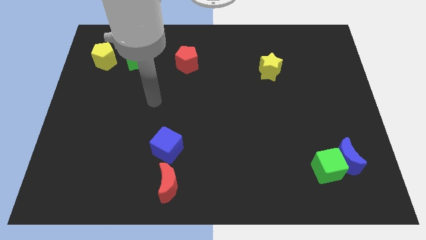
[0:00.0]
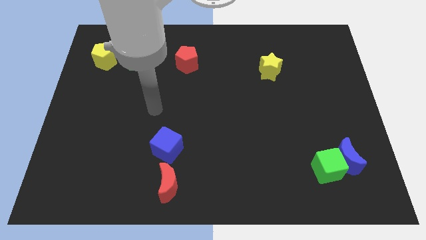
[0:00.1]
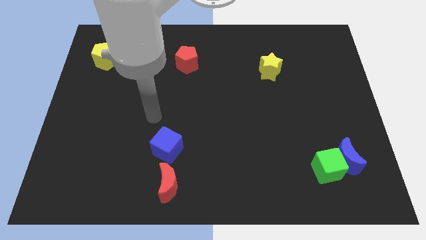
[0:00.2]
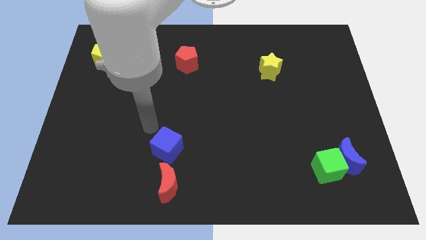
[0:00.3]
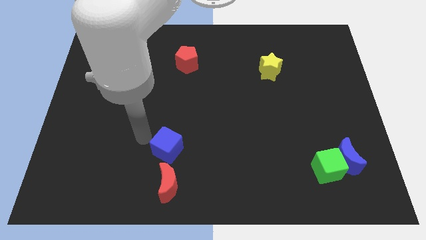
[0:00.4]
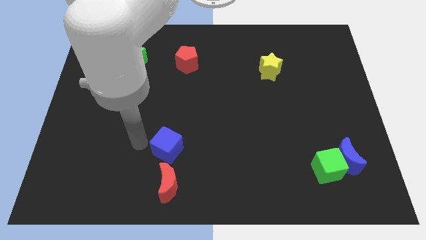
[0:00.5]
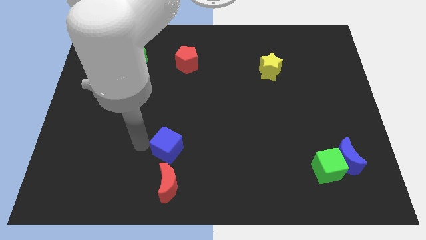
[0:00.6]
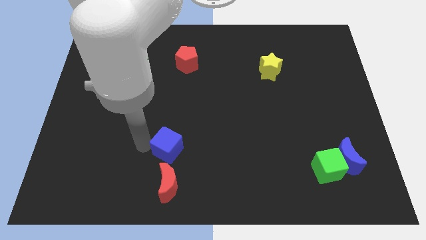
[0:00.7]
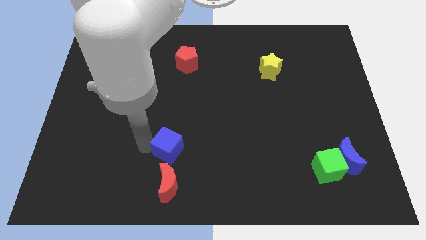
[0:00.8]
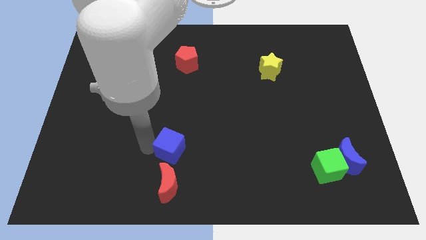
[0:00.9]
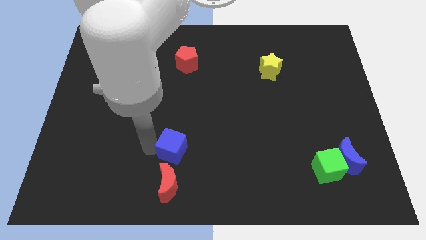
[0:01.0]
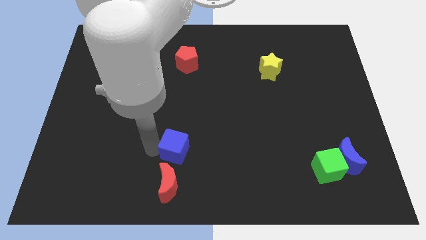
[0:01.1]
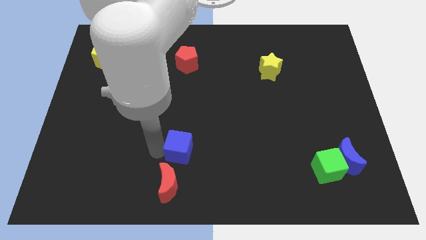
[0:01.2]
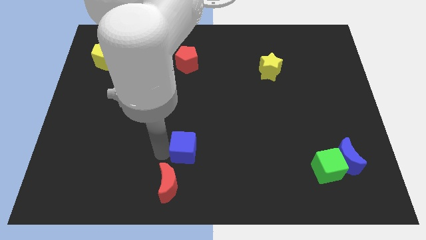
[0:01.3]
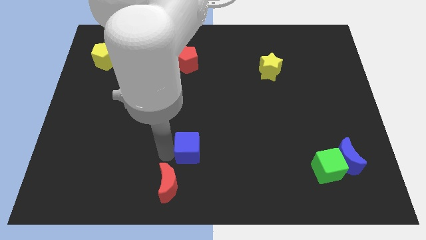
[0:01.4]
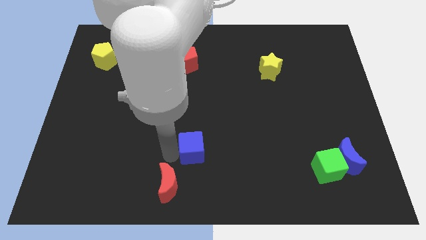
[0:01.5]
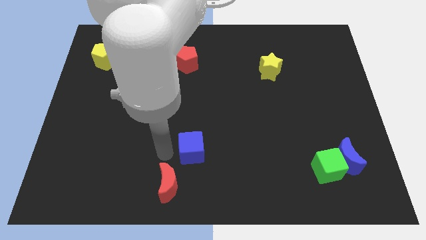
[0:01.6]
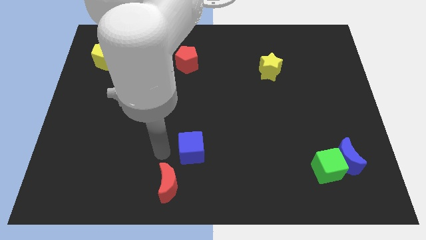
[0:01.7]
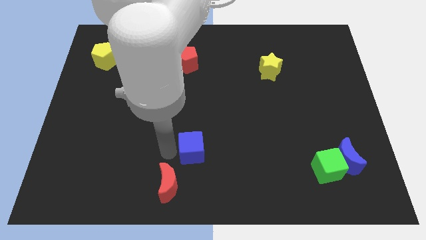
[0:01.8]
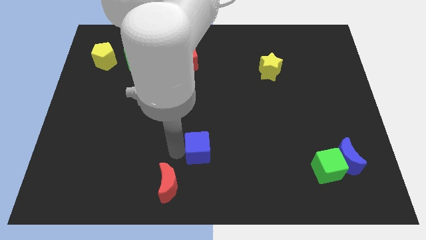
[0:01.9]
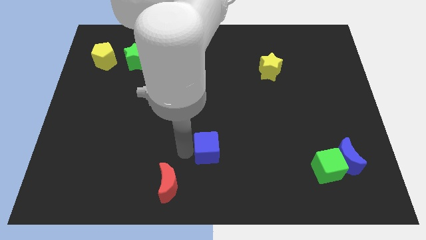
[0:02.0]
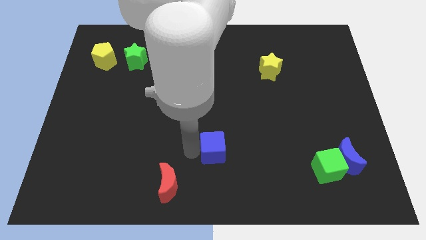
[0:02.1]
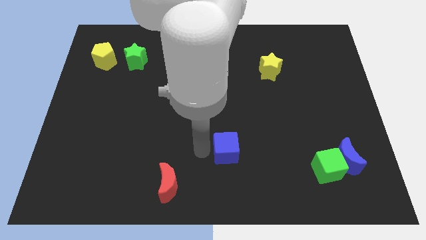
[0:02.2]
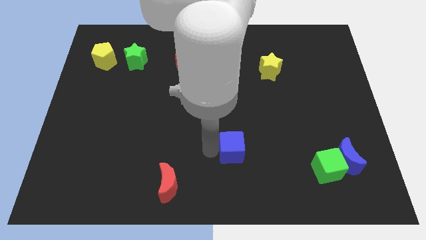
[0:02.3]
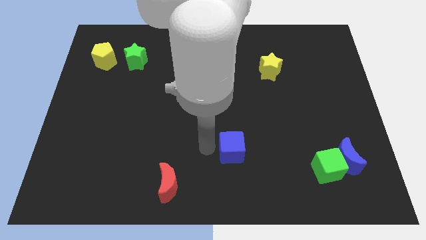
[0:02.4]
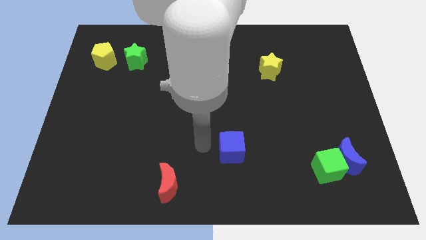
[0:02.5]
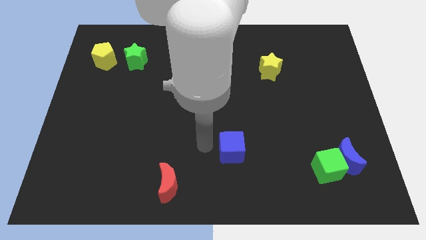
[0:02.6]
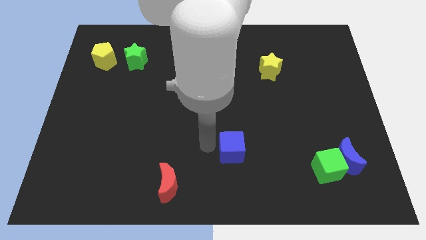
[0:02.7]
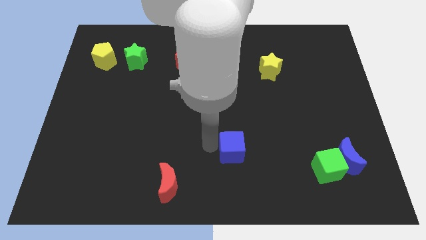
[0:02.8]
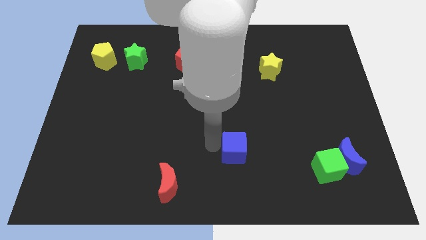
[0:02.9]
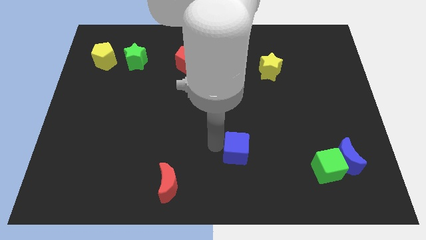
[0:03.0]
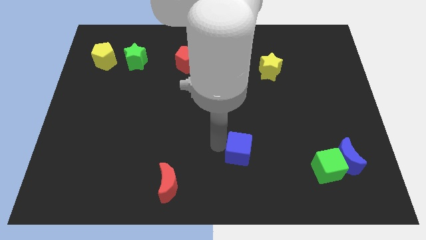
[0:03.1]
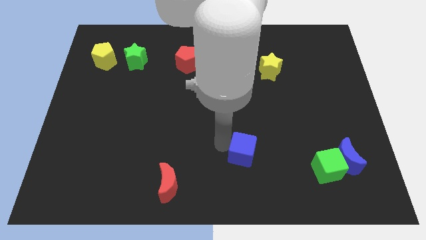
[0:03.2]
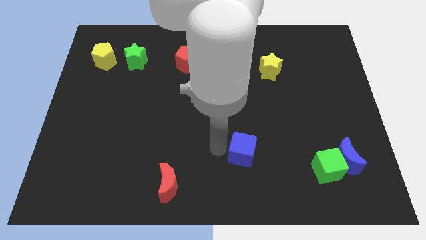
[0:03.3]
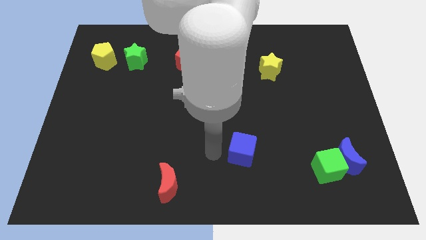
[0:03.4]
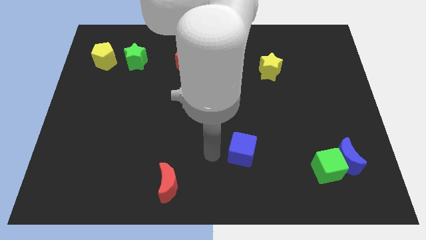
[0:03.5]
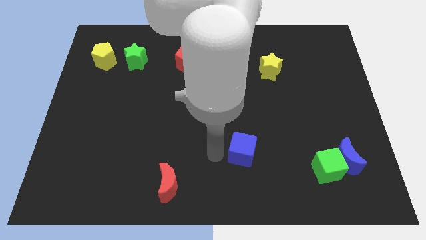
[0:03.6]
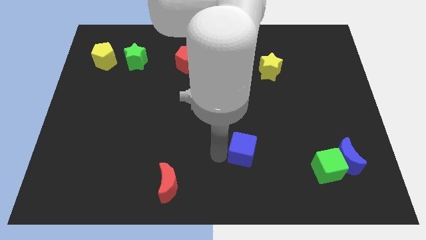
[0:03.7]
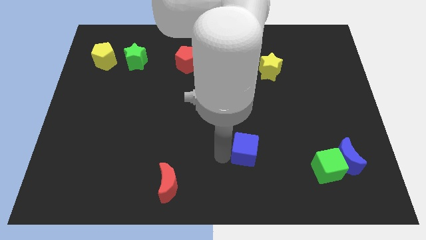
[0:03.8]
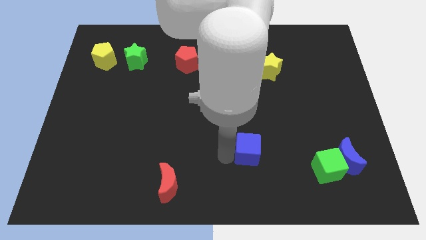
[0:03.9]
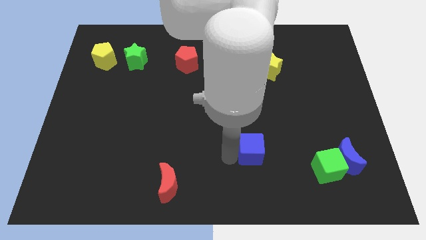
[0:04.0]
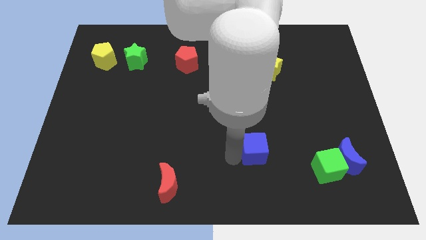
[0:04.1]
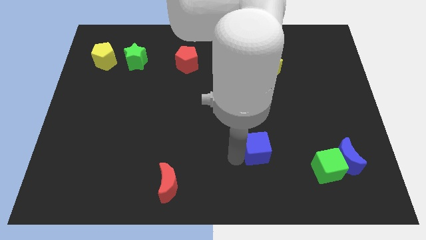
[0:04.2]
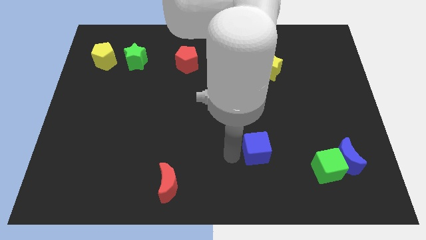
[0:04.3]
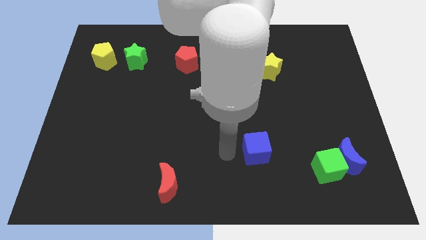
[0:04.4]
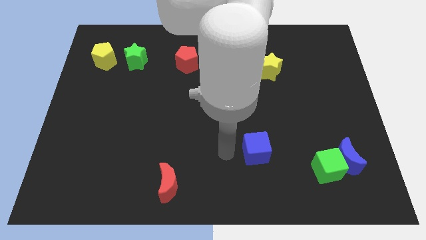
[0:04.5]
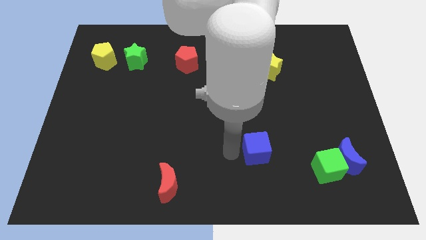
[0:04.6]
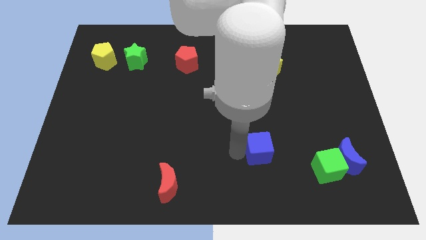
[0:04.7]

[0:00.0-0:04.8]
push the blue cube to the right

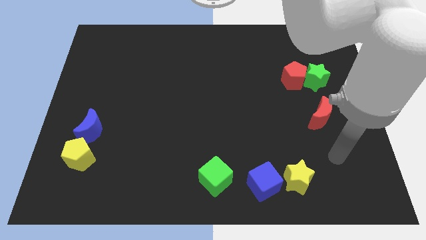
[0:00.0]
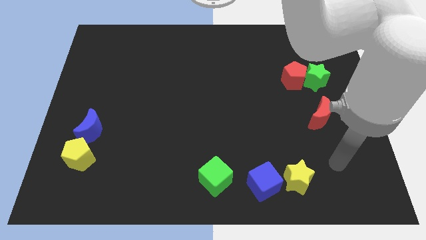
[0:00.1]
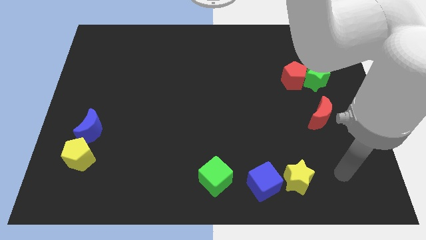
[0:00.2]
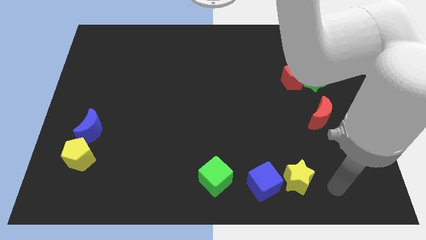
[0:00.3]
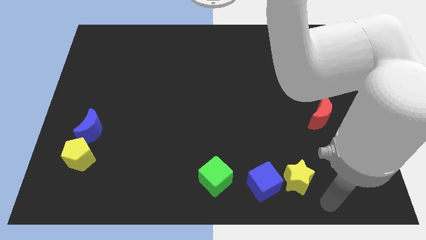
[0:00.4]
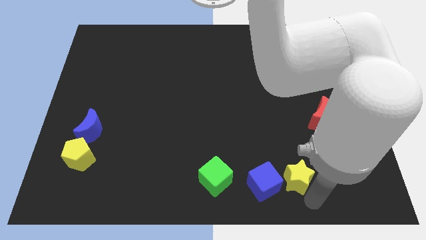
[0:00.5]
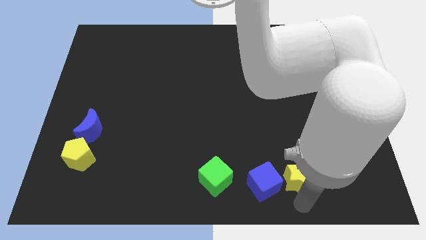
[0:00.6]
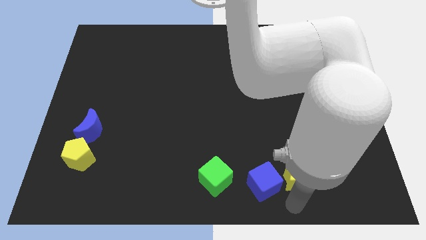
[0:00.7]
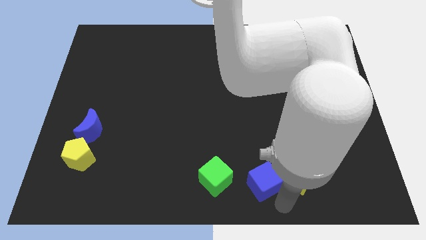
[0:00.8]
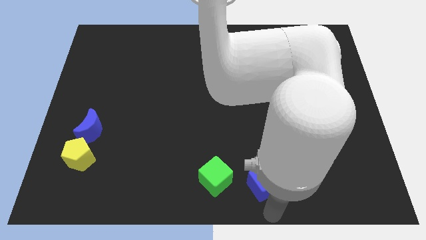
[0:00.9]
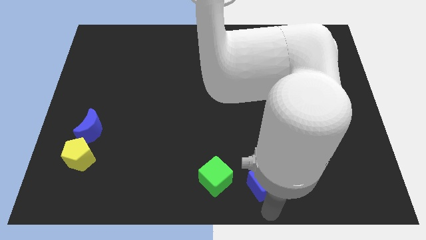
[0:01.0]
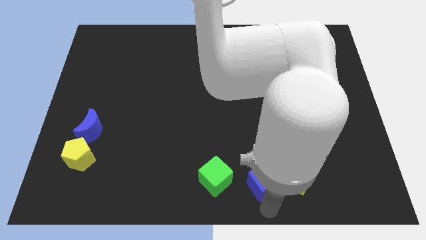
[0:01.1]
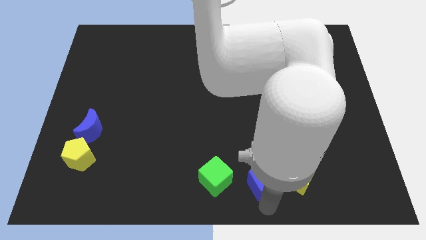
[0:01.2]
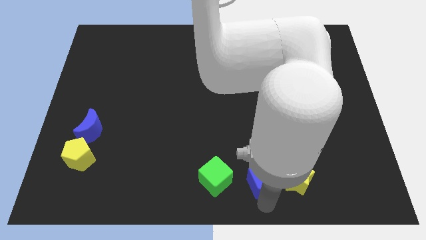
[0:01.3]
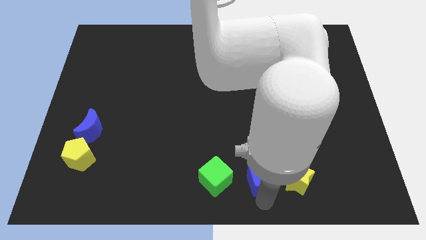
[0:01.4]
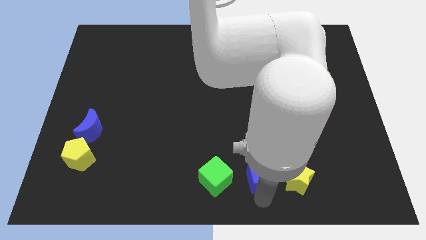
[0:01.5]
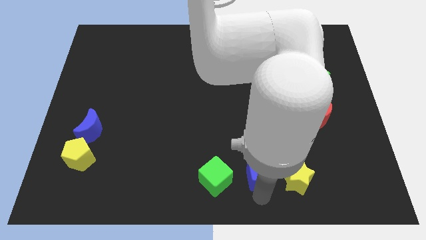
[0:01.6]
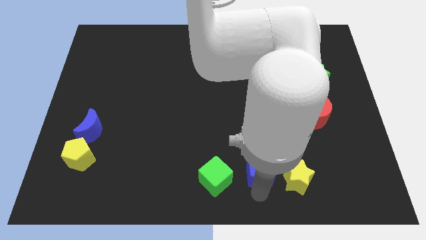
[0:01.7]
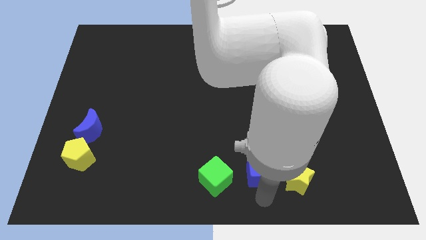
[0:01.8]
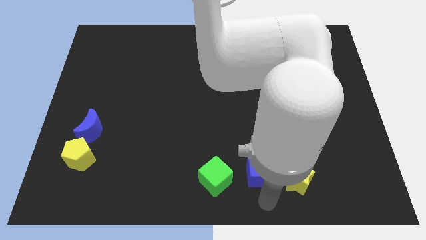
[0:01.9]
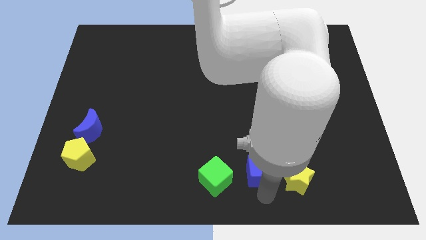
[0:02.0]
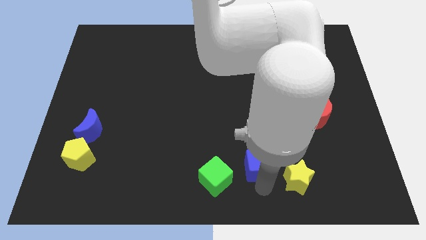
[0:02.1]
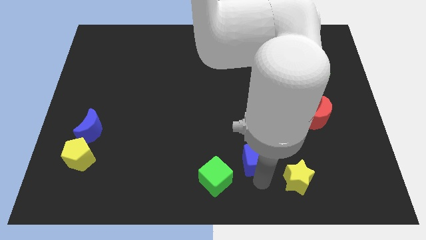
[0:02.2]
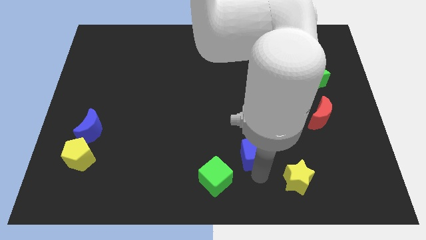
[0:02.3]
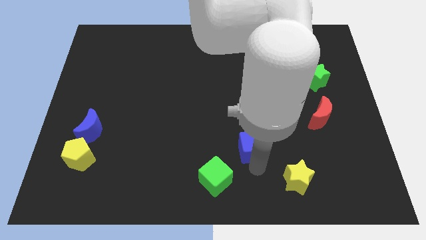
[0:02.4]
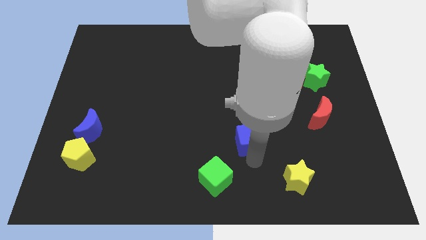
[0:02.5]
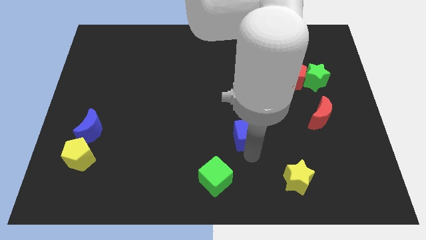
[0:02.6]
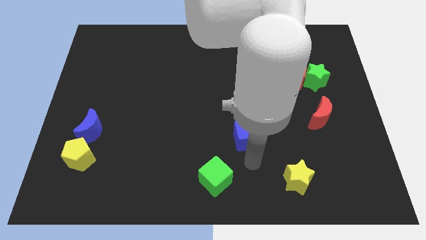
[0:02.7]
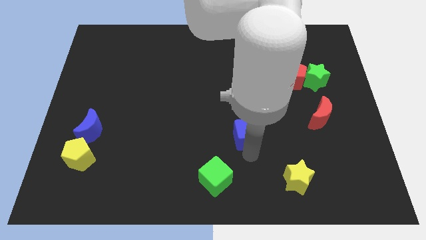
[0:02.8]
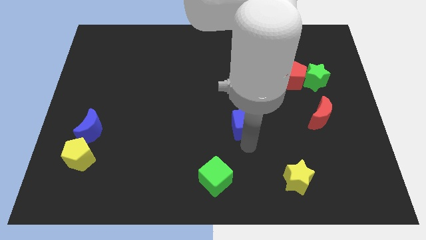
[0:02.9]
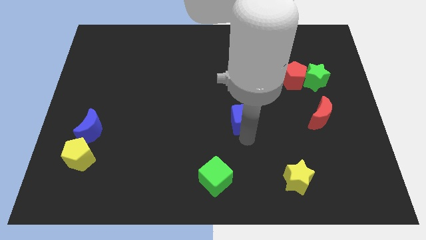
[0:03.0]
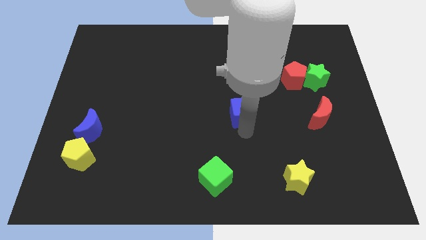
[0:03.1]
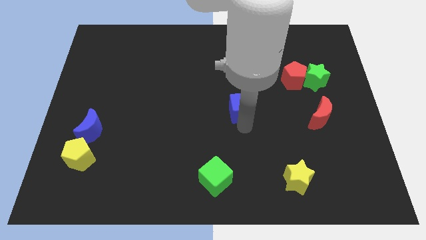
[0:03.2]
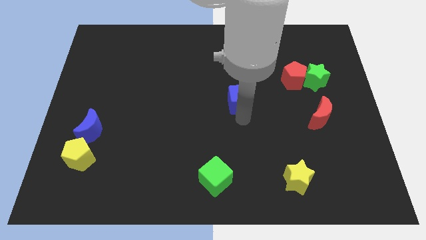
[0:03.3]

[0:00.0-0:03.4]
push the blue cube upwards
